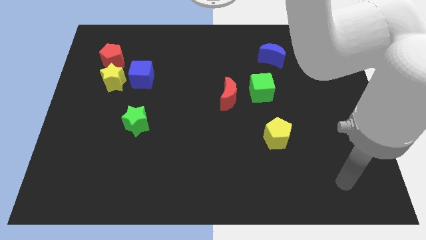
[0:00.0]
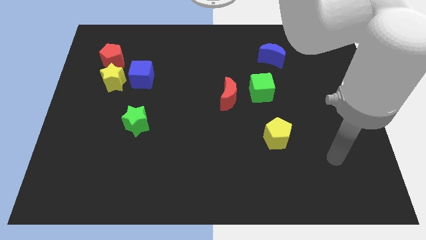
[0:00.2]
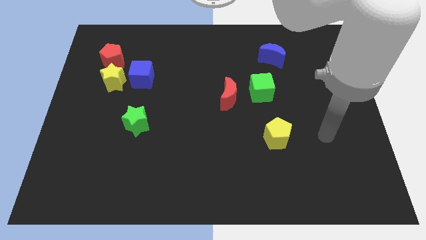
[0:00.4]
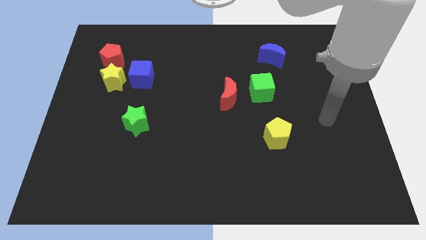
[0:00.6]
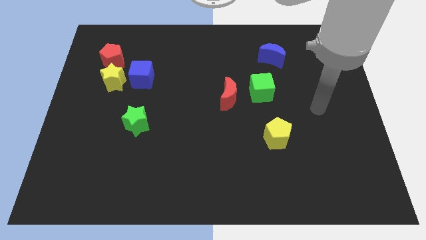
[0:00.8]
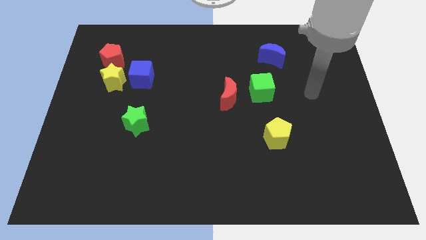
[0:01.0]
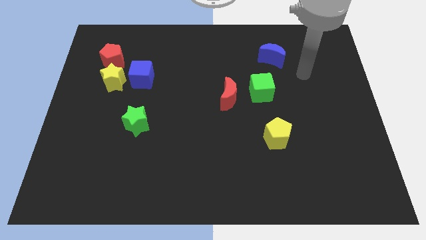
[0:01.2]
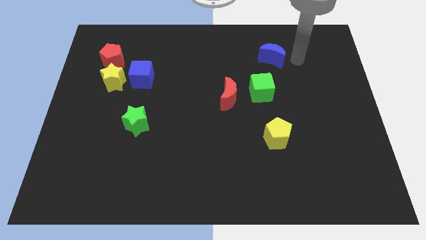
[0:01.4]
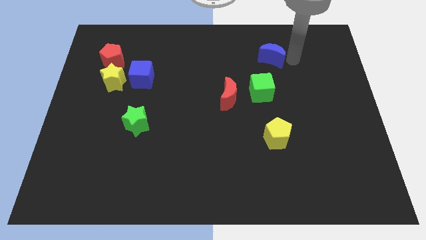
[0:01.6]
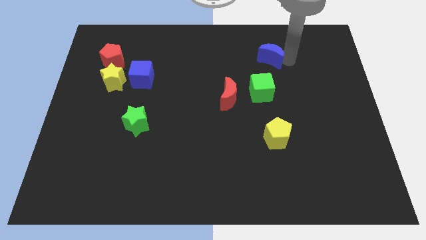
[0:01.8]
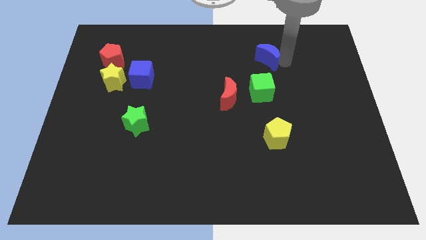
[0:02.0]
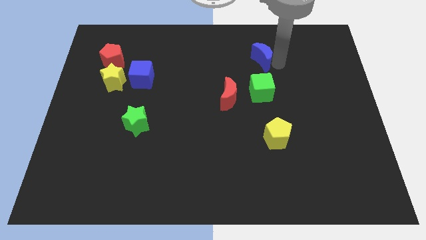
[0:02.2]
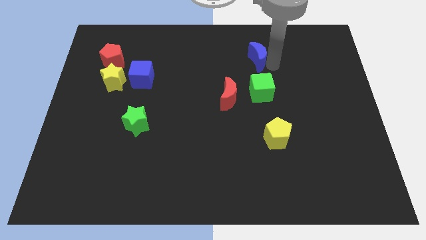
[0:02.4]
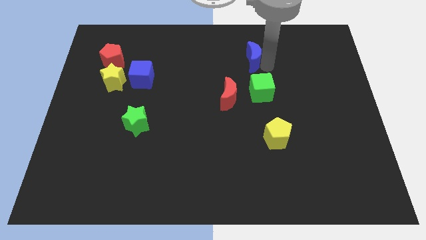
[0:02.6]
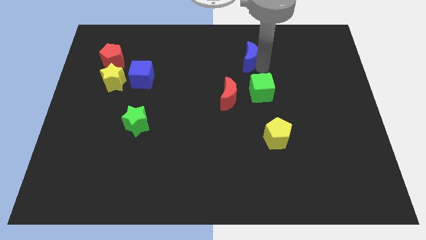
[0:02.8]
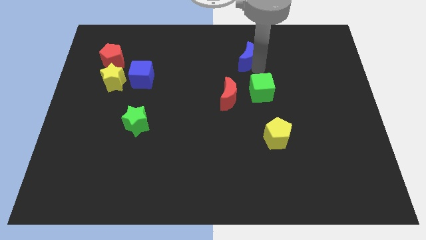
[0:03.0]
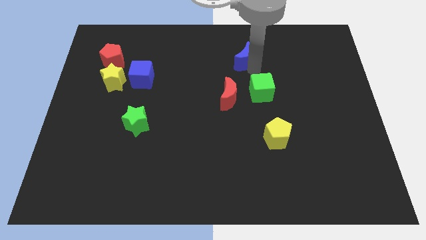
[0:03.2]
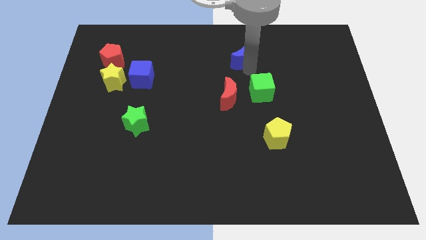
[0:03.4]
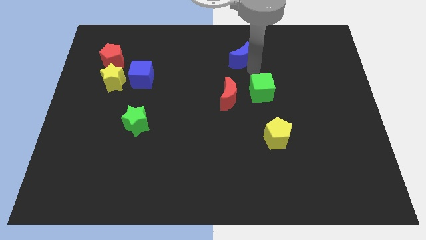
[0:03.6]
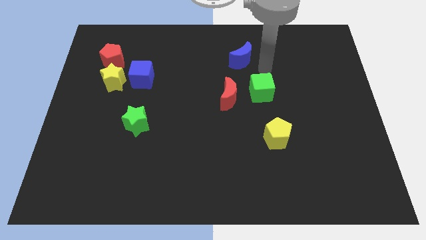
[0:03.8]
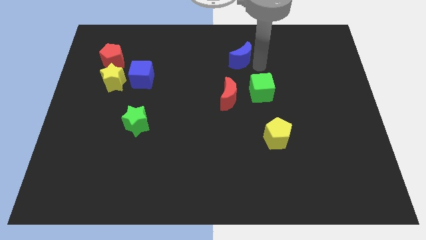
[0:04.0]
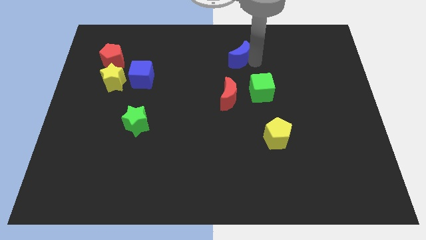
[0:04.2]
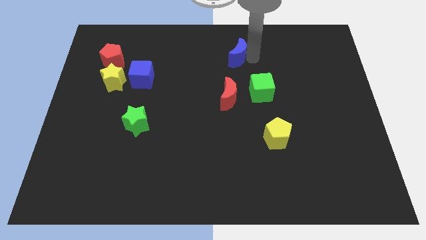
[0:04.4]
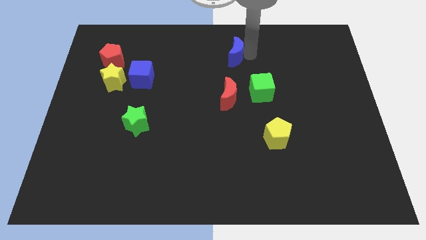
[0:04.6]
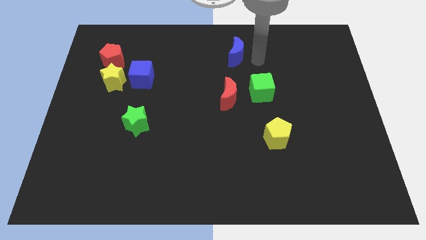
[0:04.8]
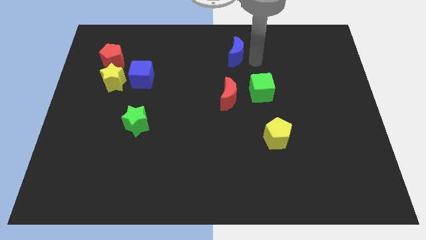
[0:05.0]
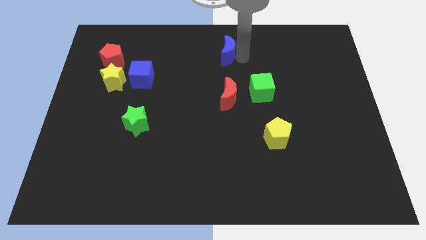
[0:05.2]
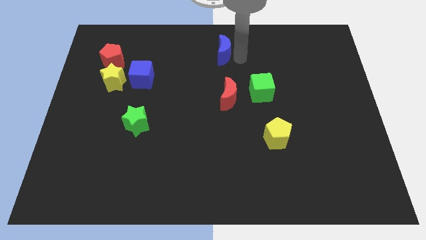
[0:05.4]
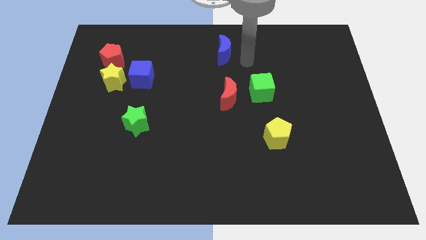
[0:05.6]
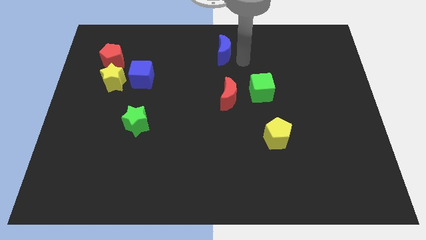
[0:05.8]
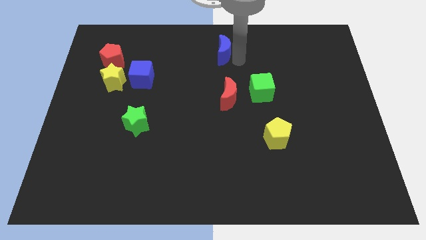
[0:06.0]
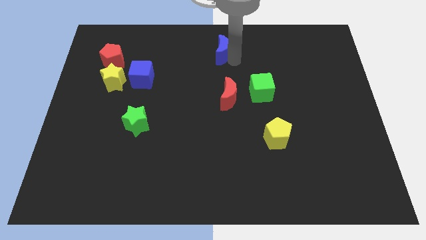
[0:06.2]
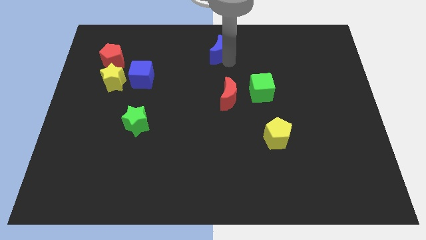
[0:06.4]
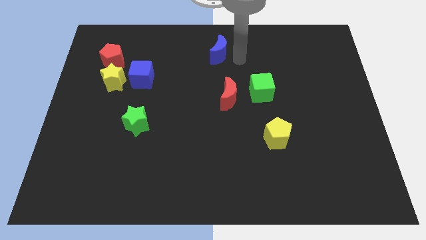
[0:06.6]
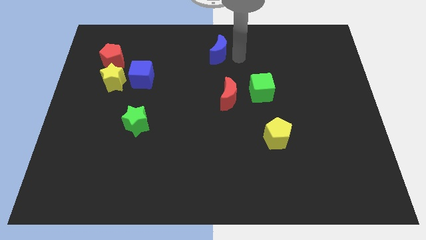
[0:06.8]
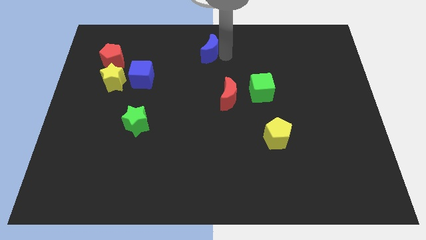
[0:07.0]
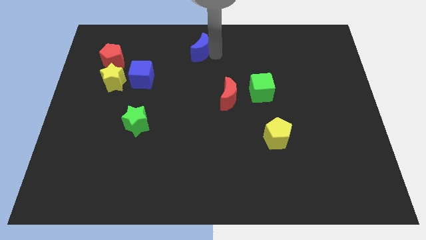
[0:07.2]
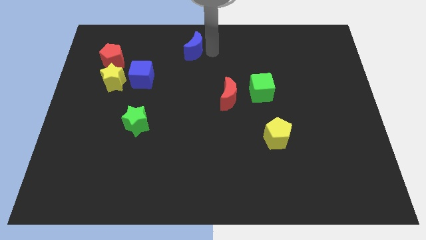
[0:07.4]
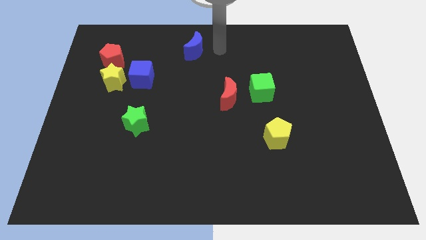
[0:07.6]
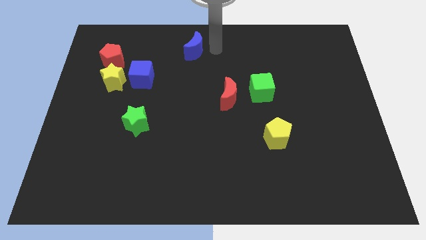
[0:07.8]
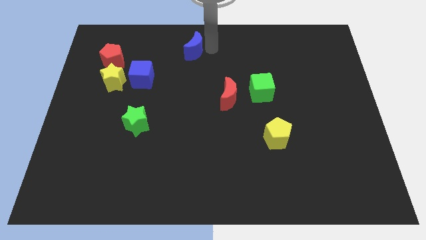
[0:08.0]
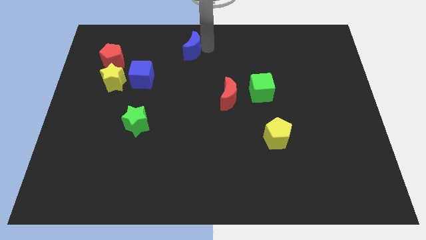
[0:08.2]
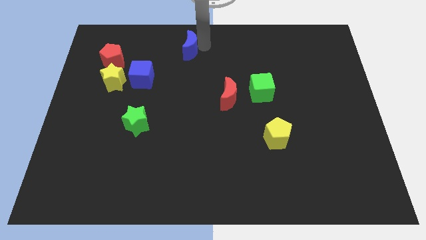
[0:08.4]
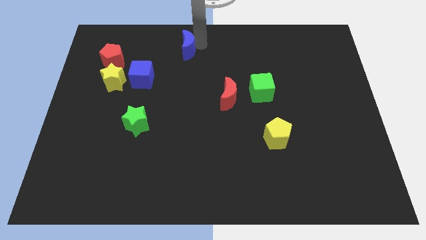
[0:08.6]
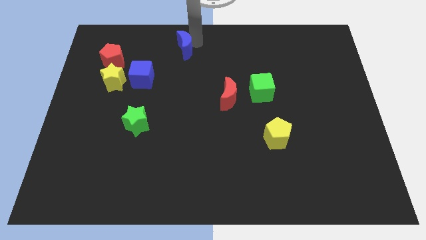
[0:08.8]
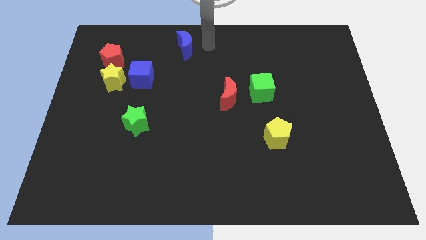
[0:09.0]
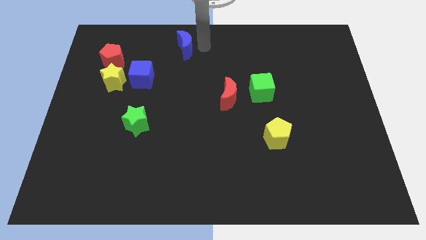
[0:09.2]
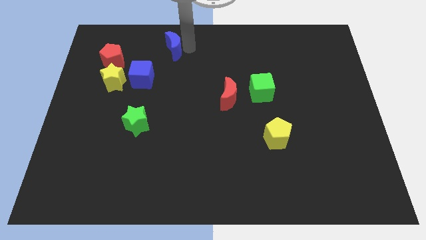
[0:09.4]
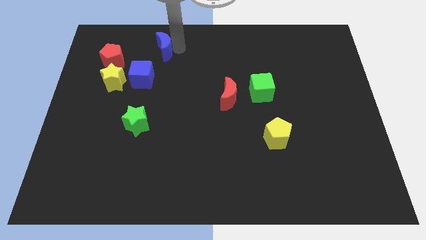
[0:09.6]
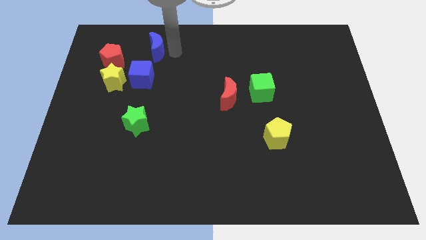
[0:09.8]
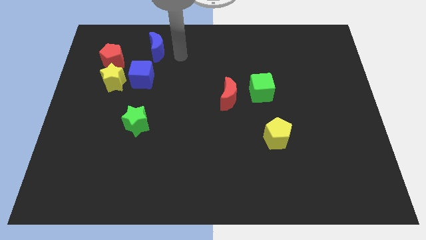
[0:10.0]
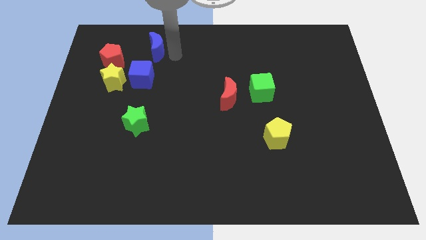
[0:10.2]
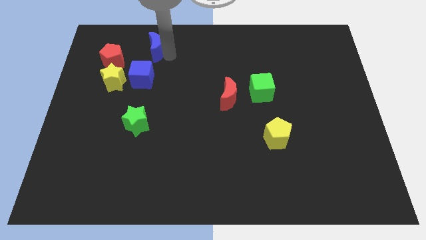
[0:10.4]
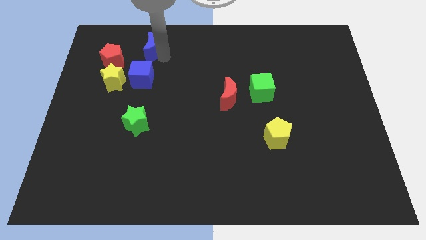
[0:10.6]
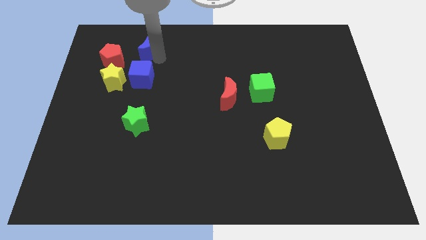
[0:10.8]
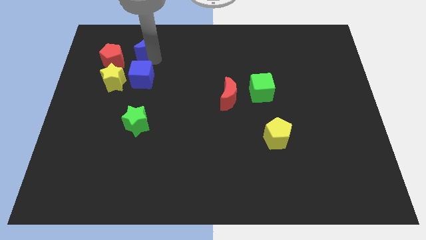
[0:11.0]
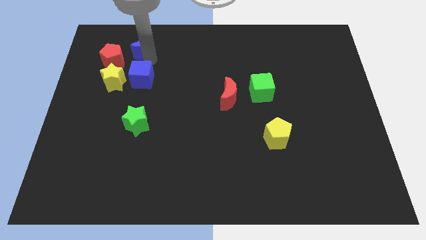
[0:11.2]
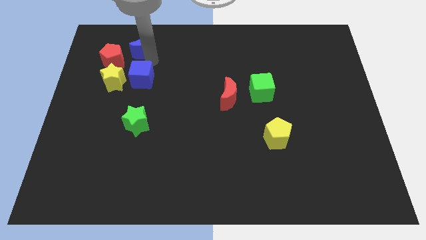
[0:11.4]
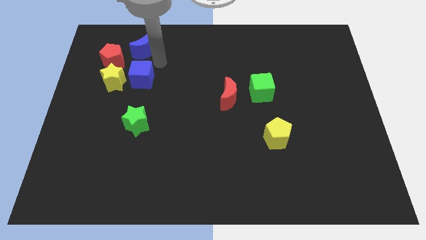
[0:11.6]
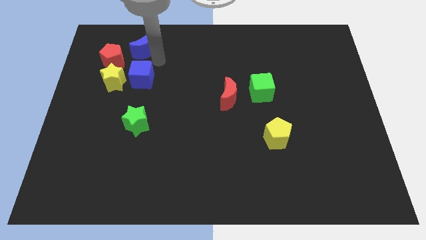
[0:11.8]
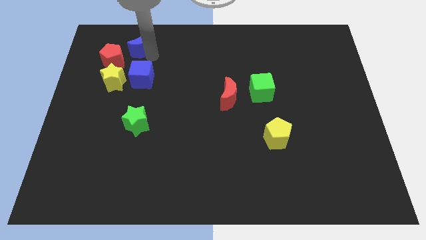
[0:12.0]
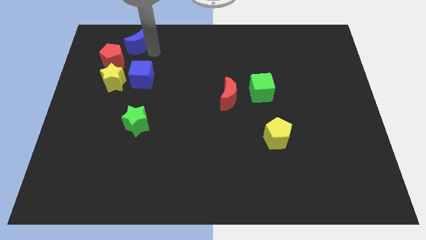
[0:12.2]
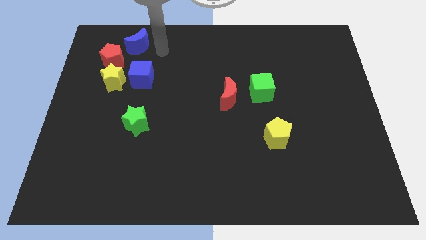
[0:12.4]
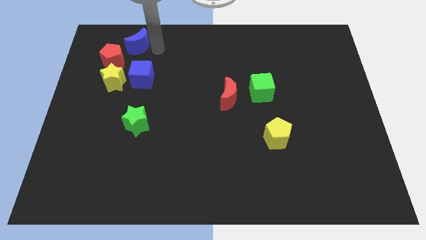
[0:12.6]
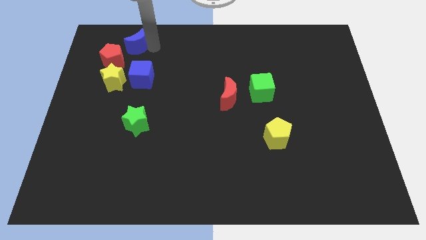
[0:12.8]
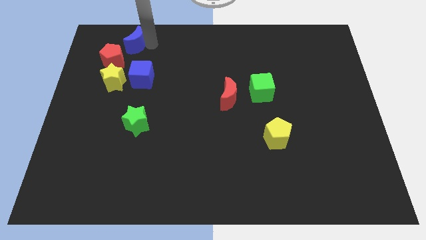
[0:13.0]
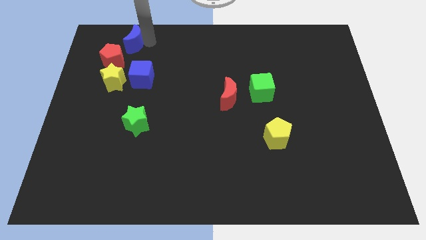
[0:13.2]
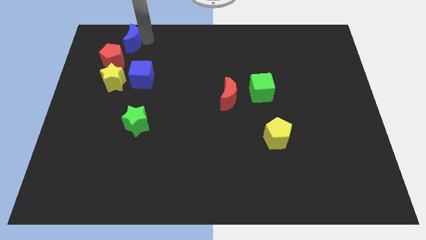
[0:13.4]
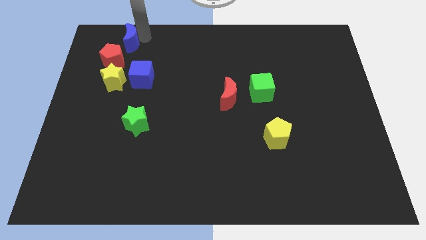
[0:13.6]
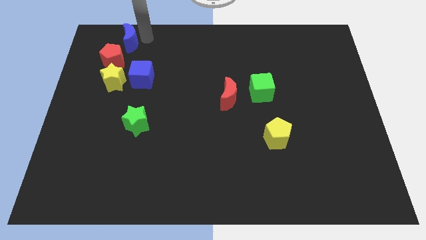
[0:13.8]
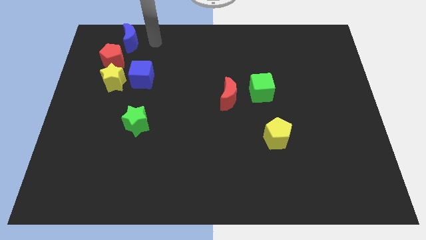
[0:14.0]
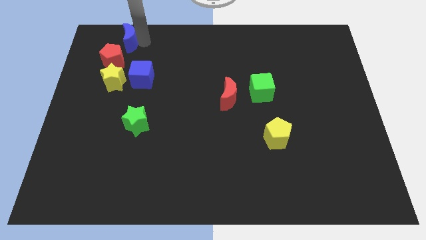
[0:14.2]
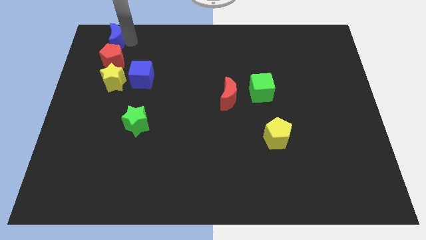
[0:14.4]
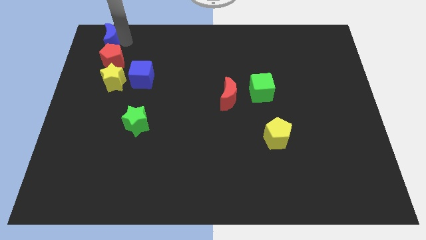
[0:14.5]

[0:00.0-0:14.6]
move the blue moon to the top left corner
